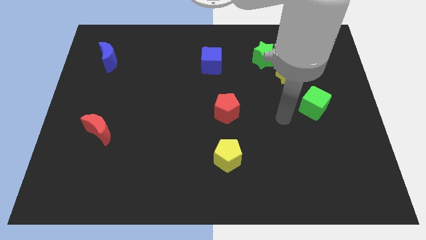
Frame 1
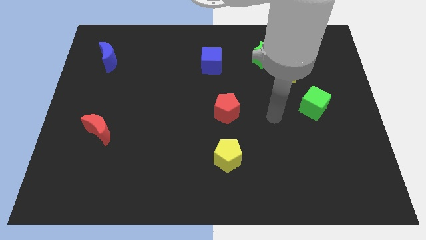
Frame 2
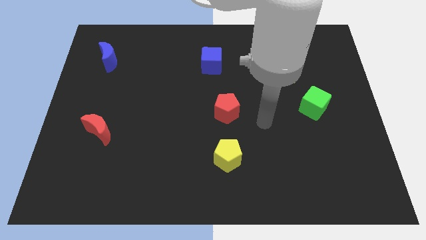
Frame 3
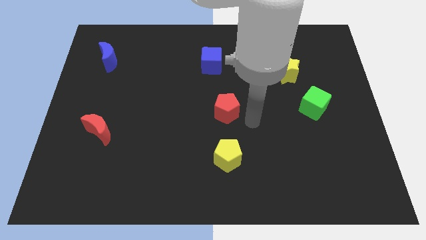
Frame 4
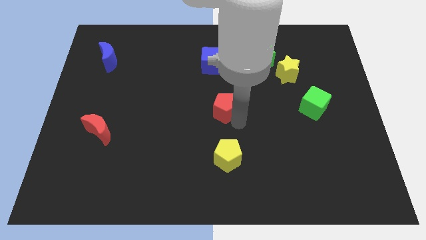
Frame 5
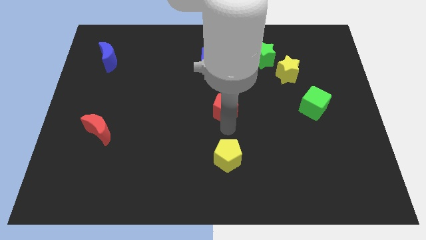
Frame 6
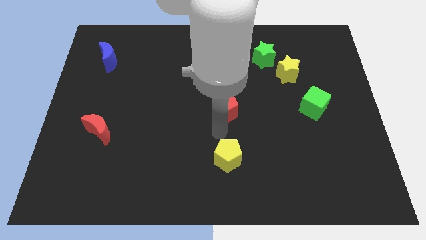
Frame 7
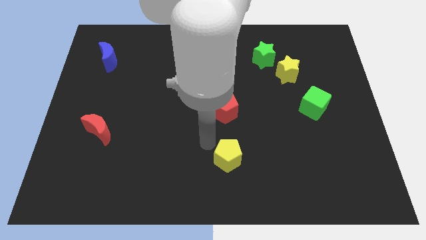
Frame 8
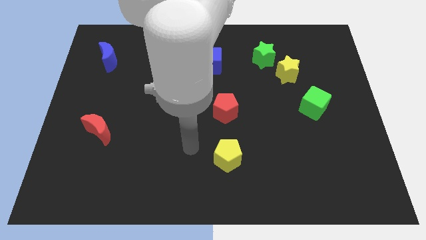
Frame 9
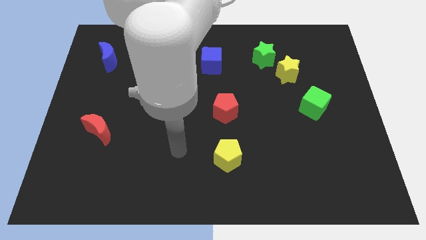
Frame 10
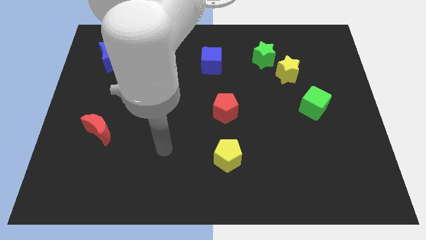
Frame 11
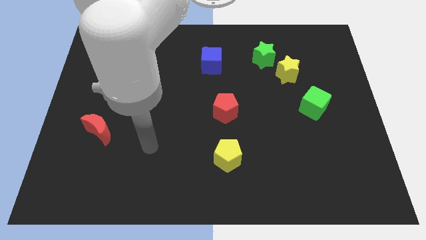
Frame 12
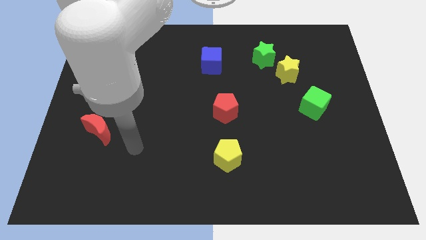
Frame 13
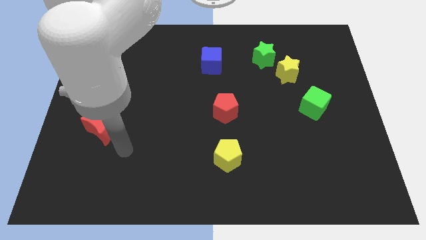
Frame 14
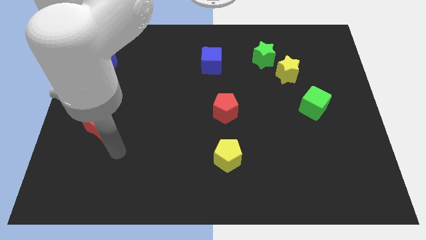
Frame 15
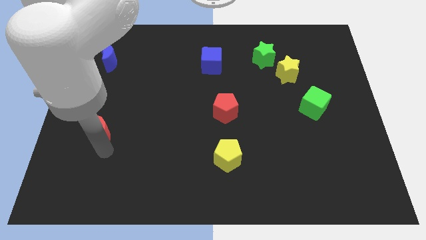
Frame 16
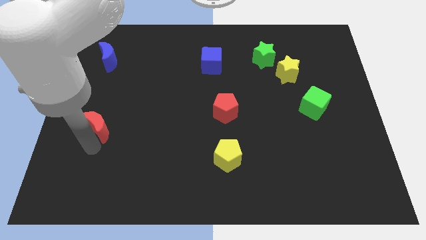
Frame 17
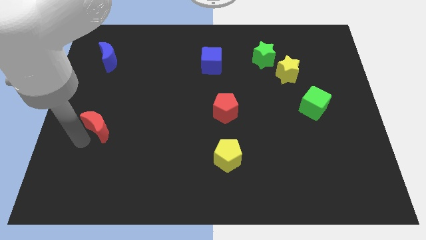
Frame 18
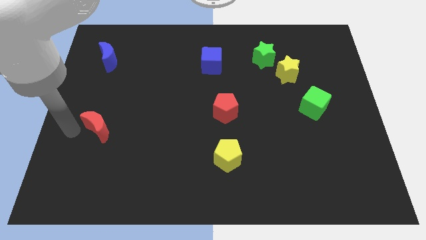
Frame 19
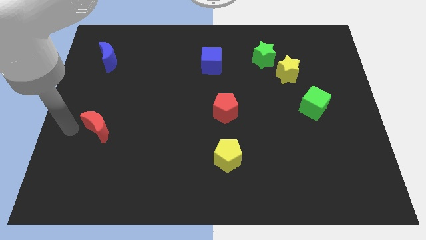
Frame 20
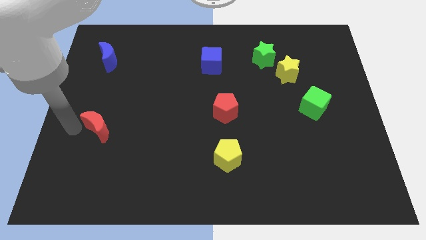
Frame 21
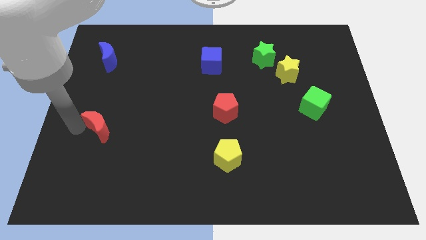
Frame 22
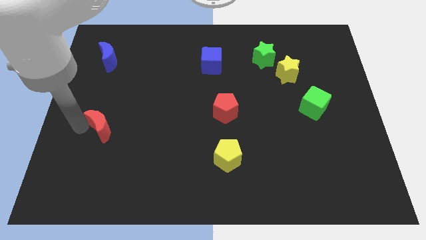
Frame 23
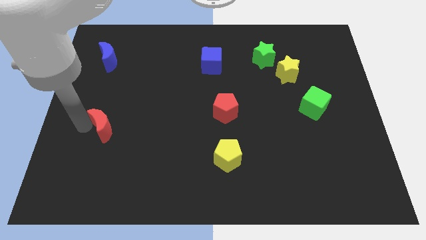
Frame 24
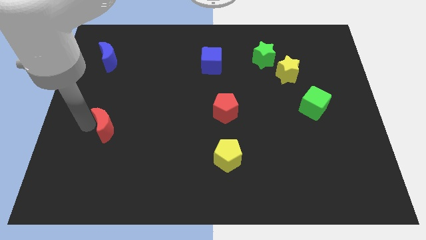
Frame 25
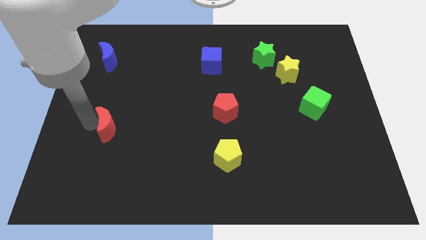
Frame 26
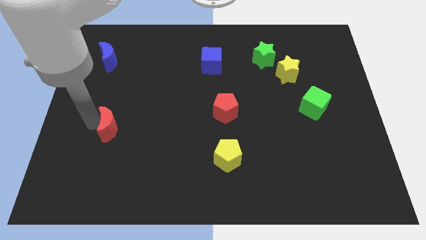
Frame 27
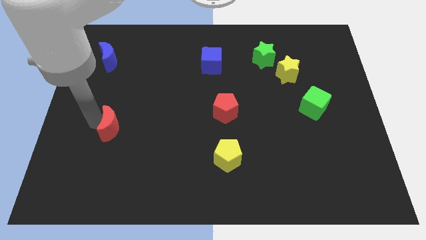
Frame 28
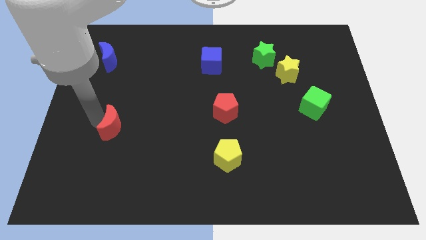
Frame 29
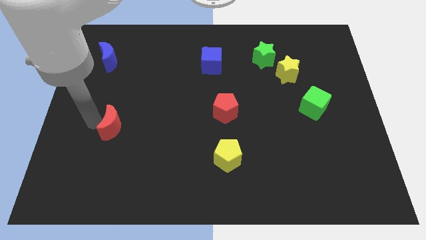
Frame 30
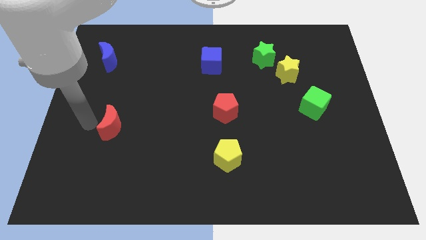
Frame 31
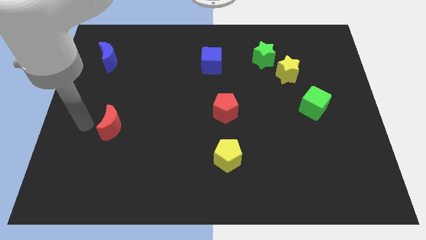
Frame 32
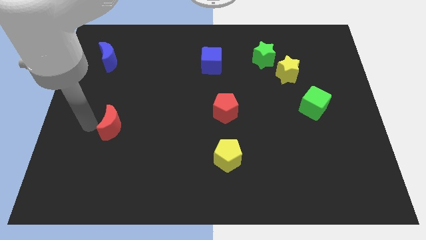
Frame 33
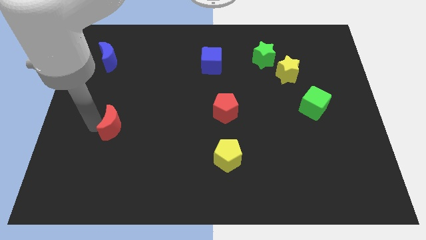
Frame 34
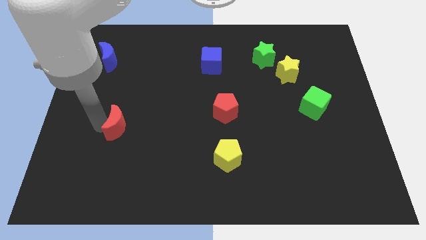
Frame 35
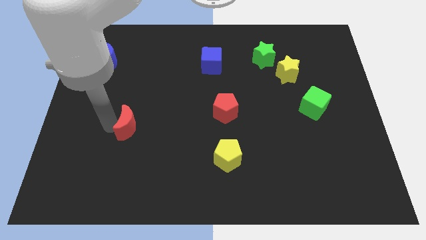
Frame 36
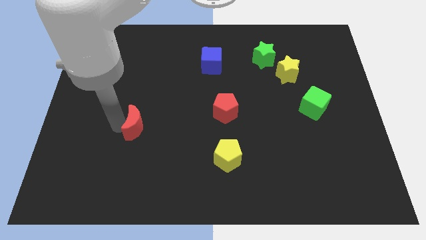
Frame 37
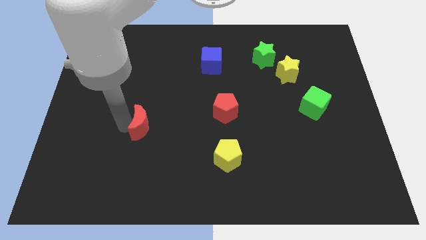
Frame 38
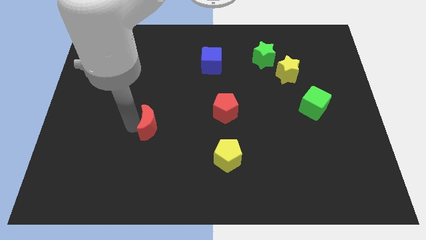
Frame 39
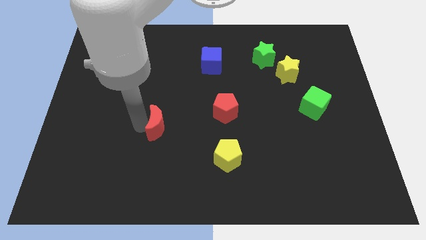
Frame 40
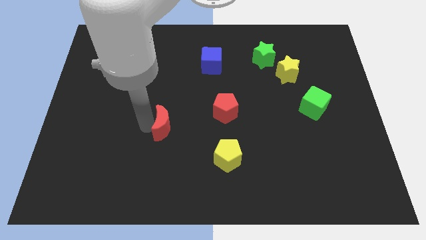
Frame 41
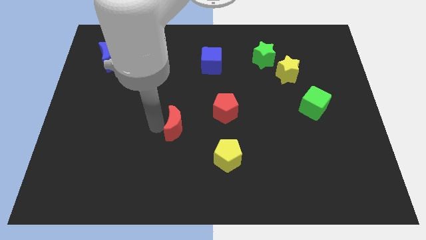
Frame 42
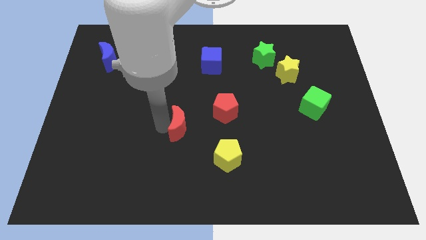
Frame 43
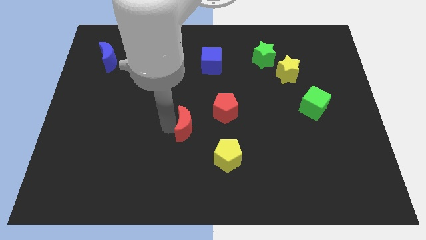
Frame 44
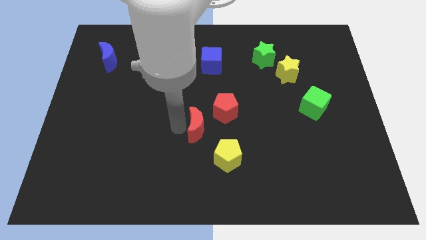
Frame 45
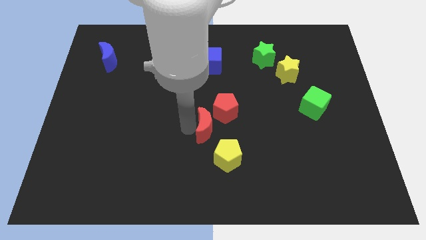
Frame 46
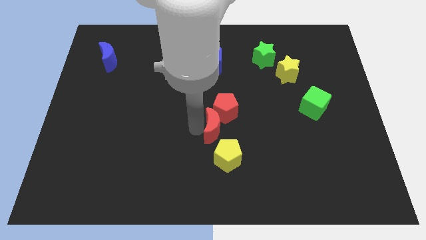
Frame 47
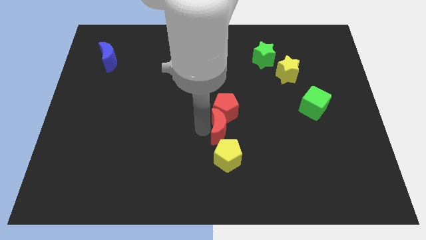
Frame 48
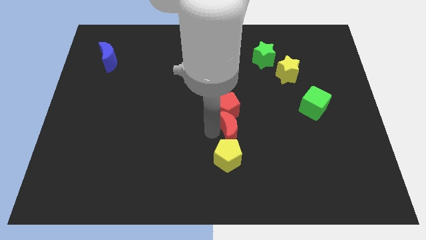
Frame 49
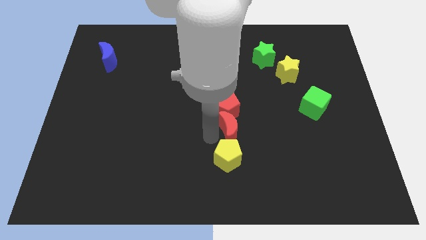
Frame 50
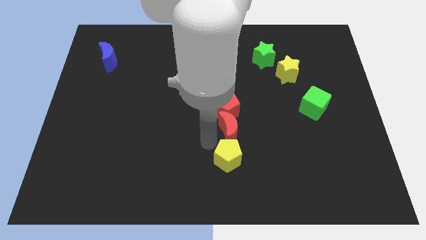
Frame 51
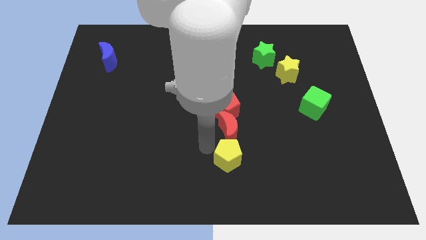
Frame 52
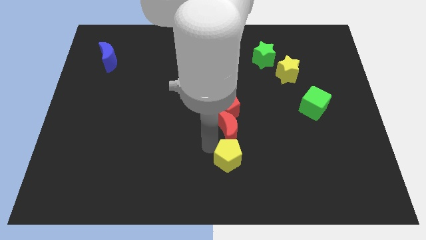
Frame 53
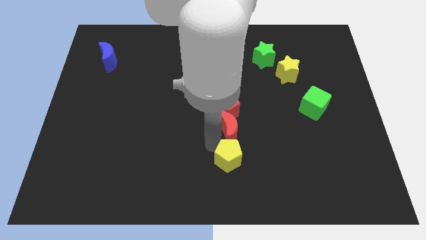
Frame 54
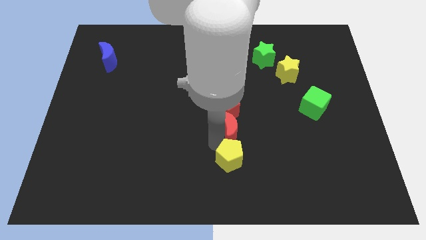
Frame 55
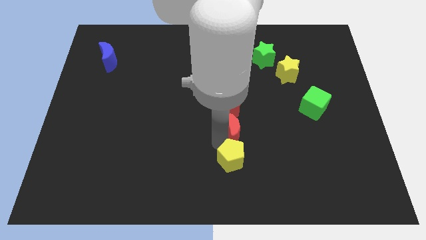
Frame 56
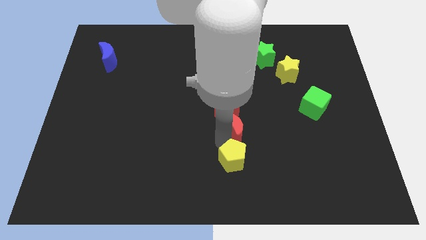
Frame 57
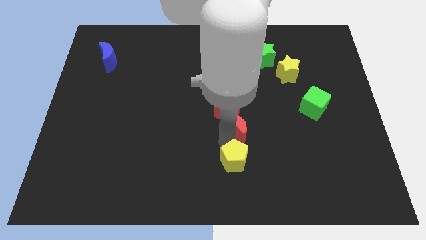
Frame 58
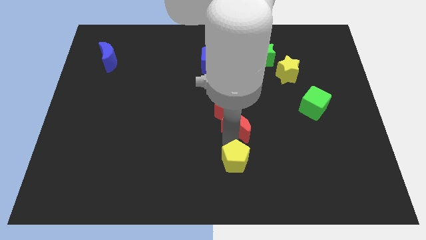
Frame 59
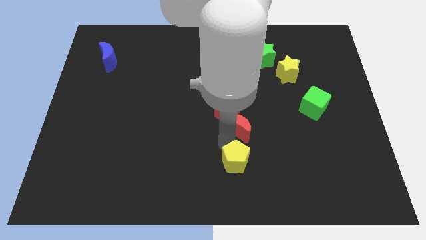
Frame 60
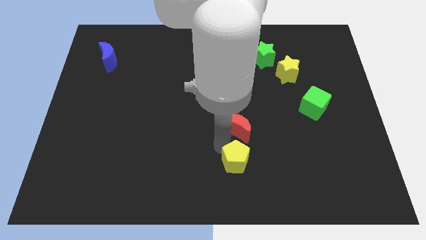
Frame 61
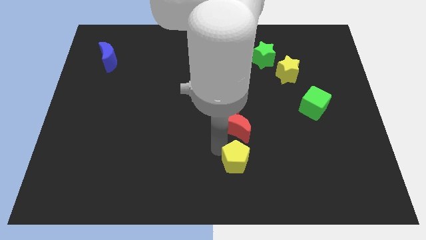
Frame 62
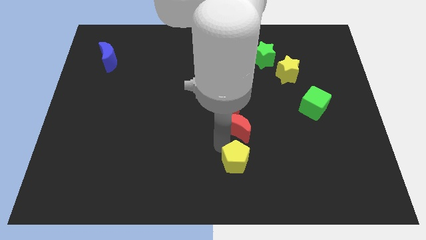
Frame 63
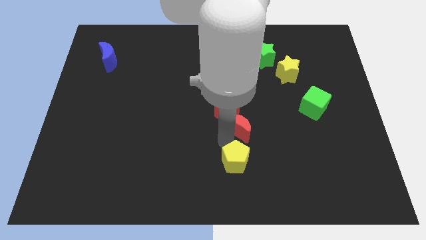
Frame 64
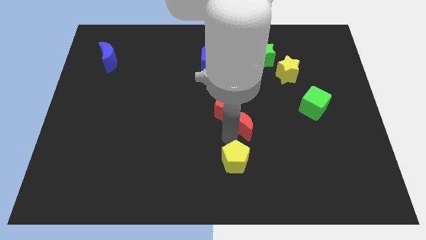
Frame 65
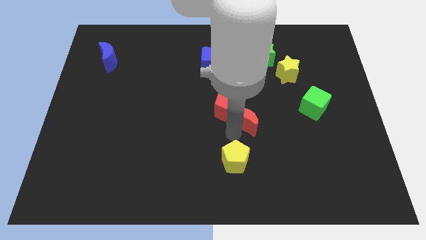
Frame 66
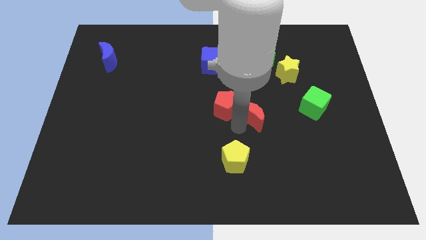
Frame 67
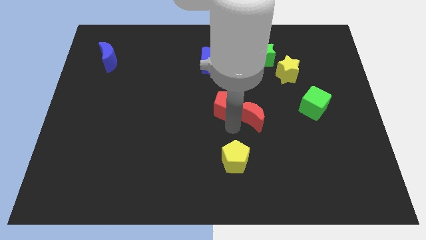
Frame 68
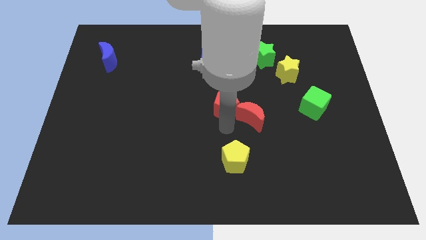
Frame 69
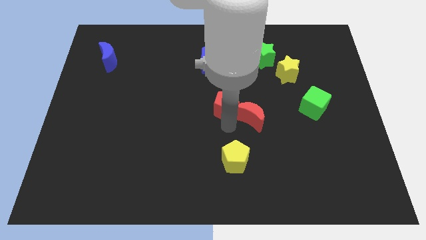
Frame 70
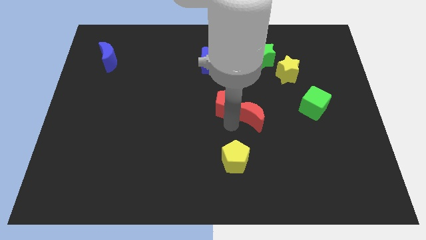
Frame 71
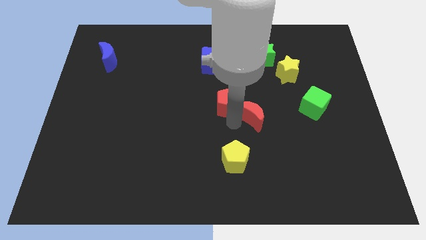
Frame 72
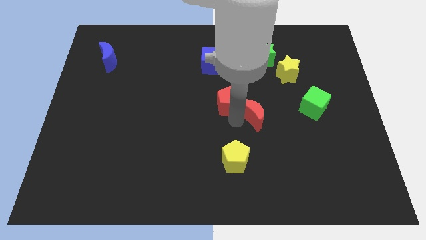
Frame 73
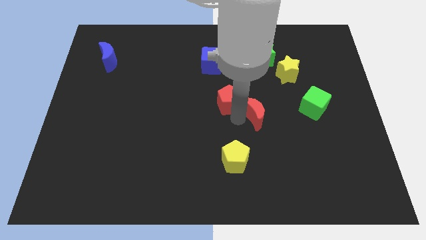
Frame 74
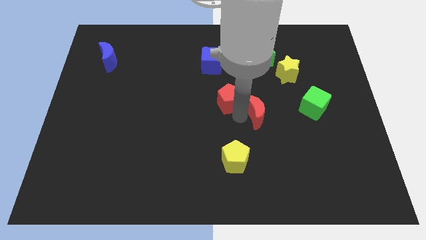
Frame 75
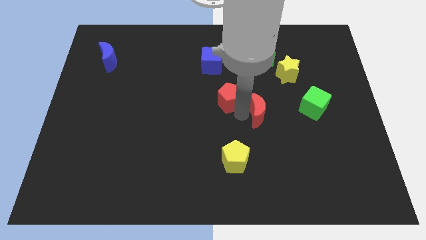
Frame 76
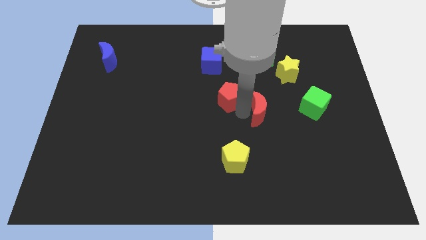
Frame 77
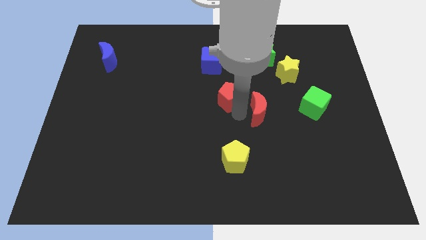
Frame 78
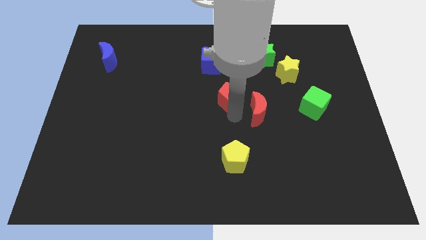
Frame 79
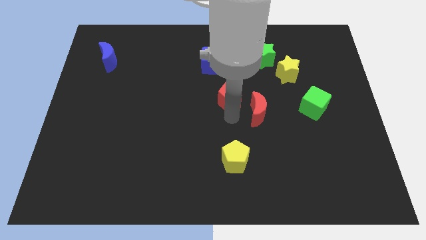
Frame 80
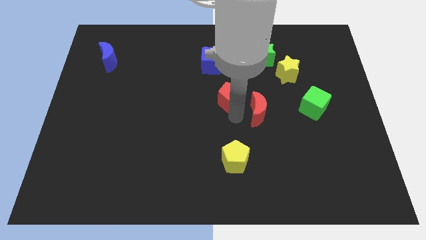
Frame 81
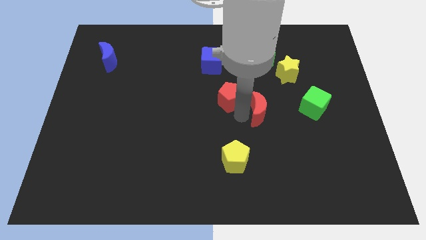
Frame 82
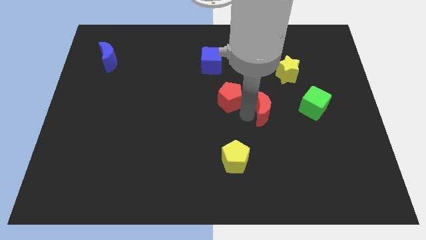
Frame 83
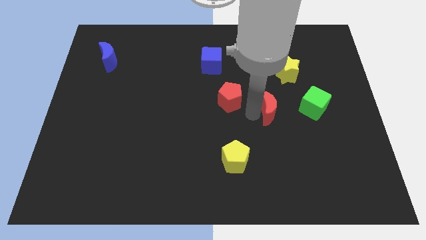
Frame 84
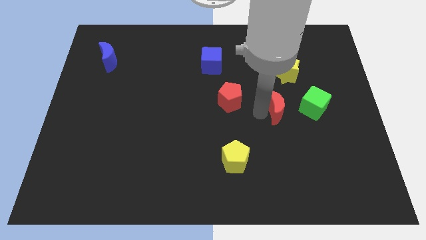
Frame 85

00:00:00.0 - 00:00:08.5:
move the red moon below the yellow star
